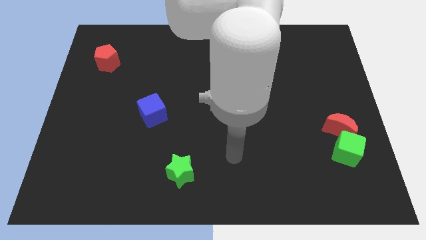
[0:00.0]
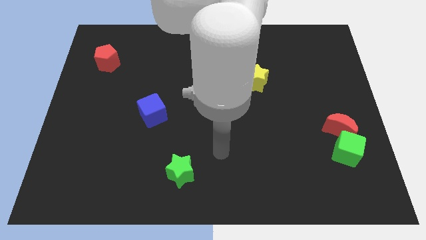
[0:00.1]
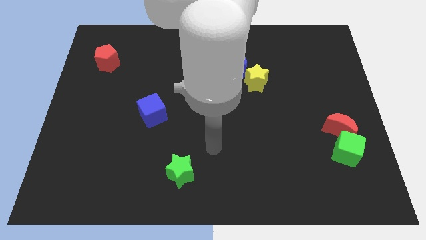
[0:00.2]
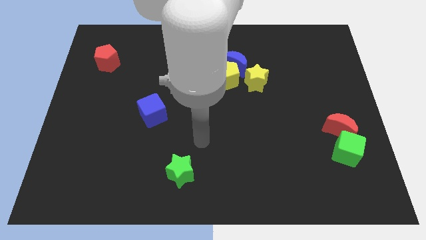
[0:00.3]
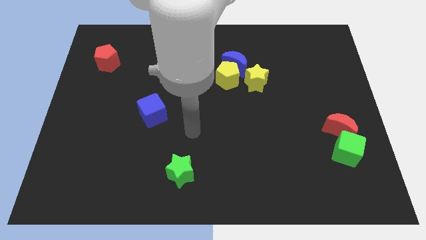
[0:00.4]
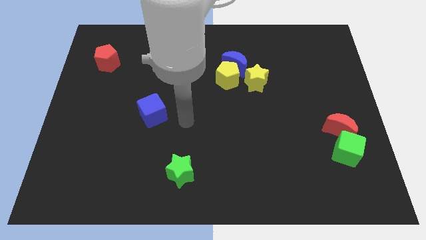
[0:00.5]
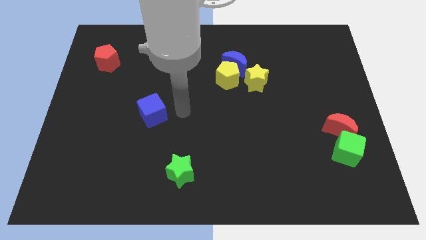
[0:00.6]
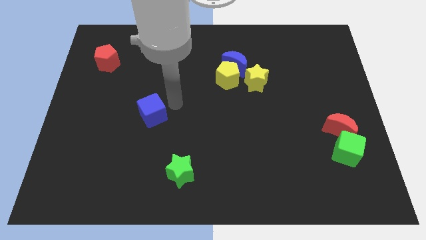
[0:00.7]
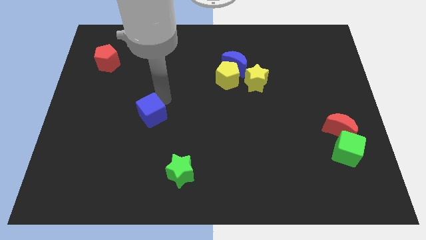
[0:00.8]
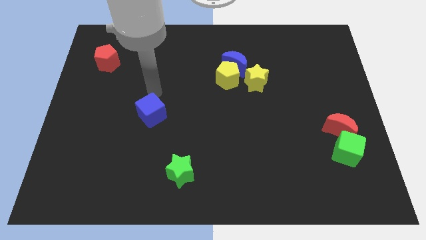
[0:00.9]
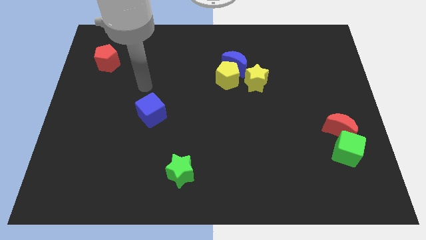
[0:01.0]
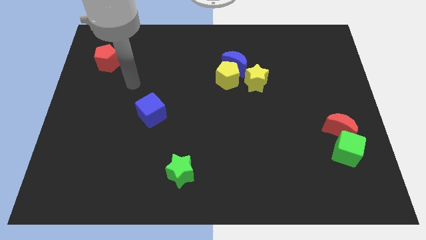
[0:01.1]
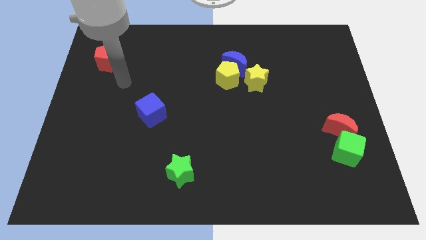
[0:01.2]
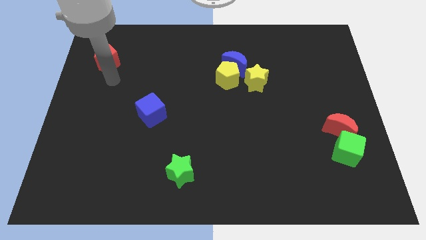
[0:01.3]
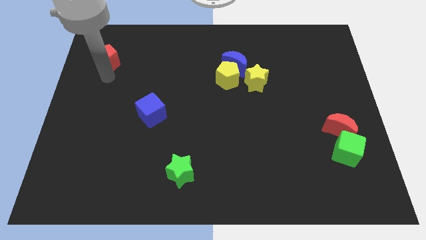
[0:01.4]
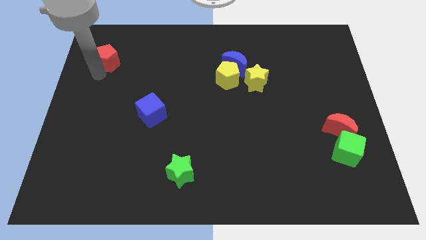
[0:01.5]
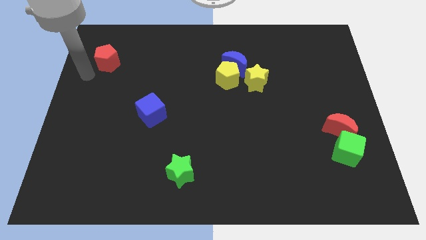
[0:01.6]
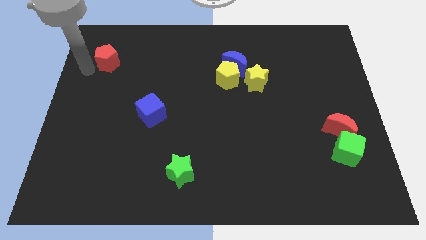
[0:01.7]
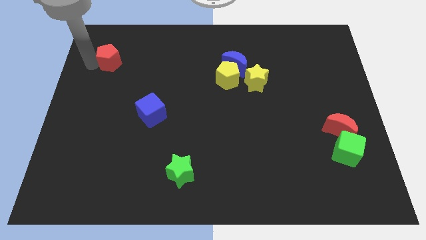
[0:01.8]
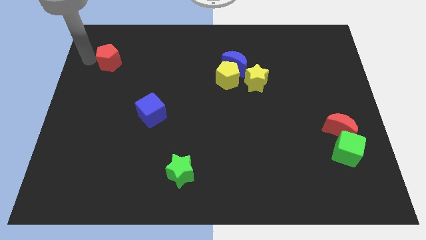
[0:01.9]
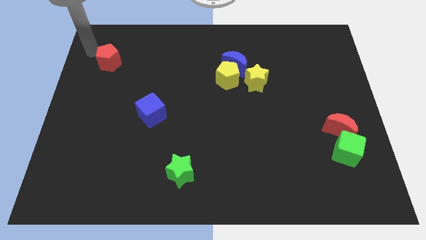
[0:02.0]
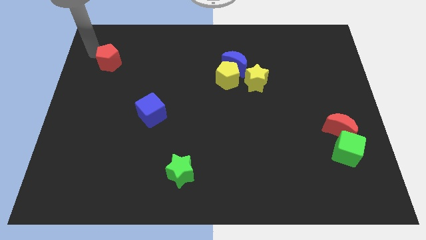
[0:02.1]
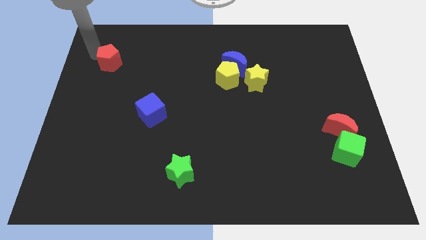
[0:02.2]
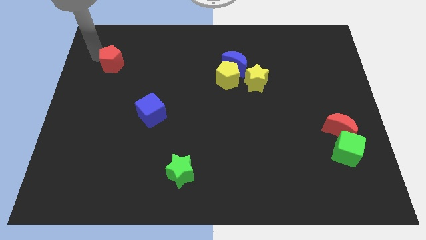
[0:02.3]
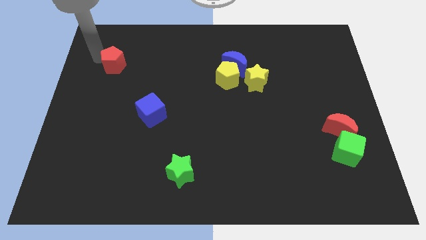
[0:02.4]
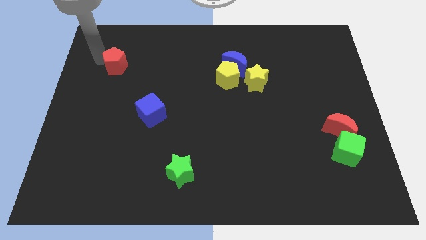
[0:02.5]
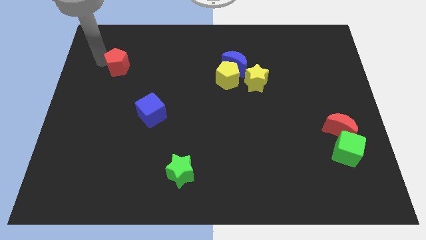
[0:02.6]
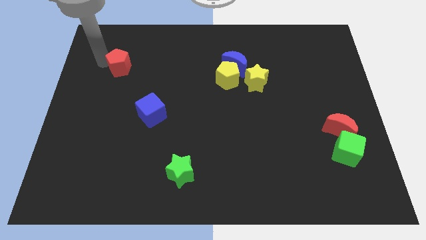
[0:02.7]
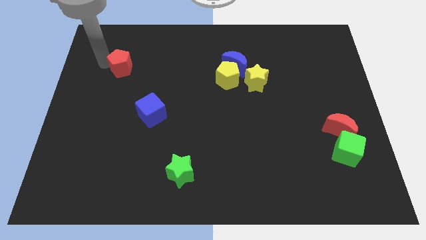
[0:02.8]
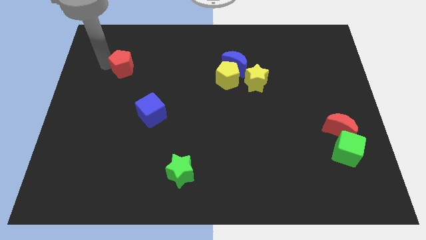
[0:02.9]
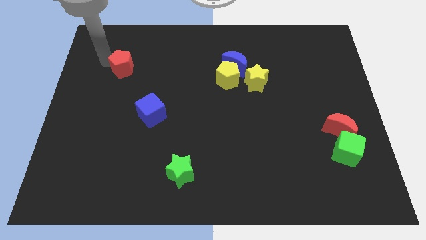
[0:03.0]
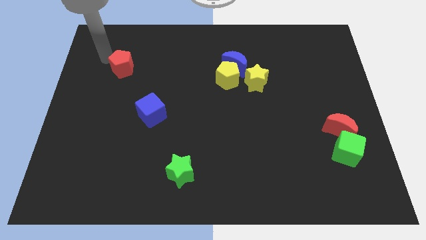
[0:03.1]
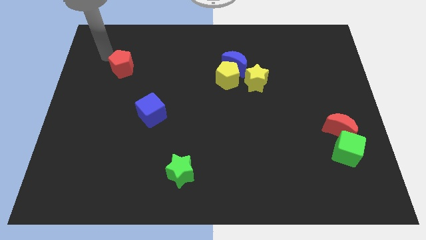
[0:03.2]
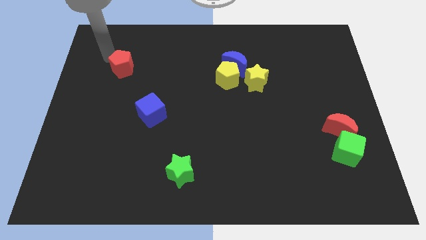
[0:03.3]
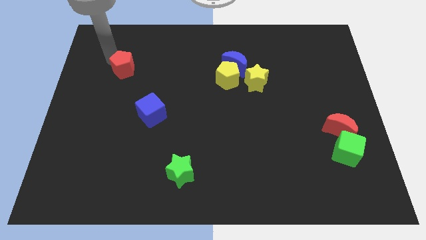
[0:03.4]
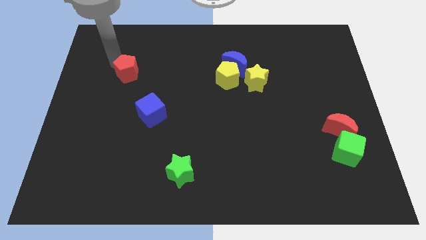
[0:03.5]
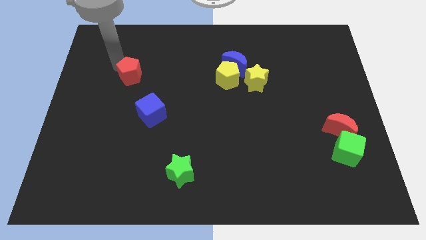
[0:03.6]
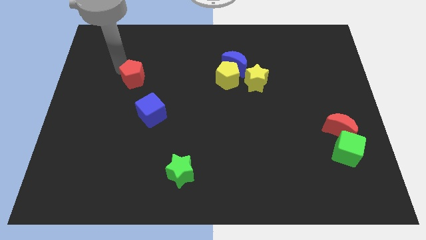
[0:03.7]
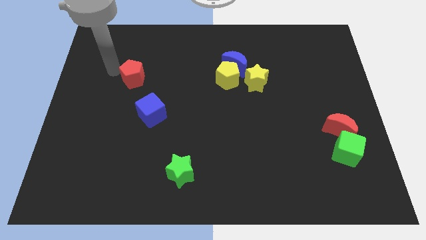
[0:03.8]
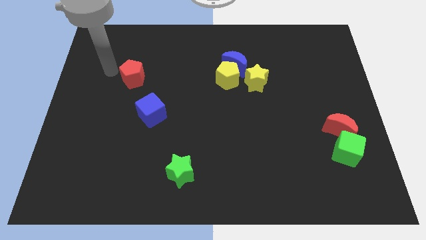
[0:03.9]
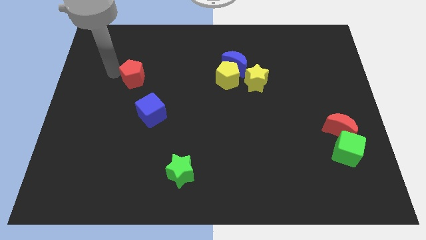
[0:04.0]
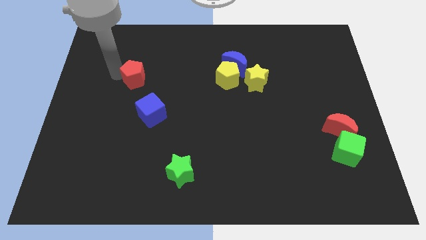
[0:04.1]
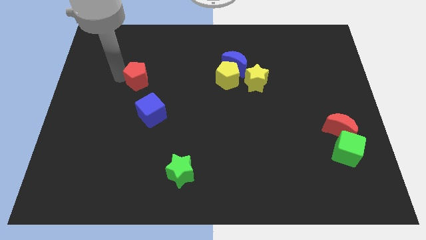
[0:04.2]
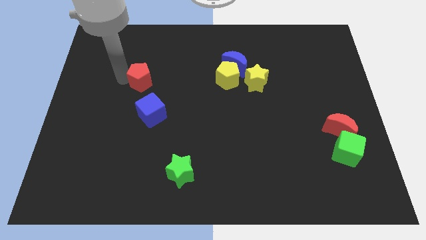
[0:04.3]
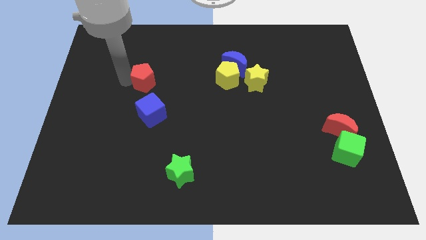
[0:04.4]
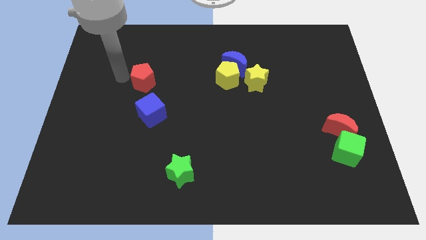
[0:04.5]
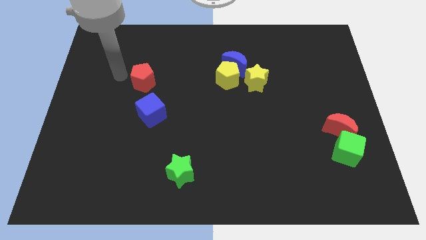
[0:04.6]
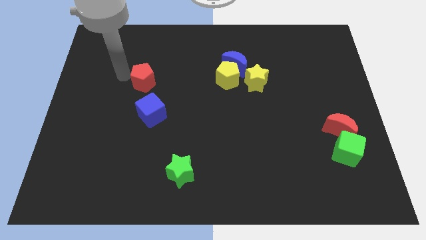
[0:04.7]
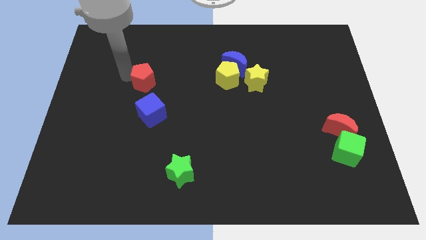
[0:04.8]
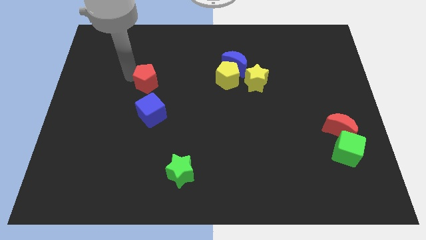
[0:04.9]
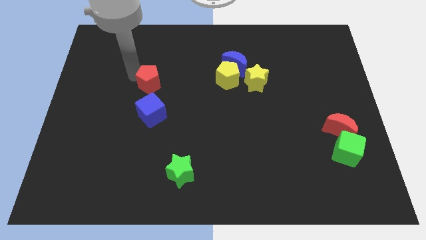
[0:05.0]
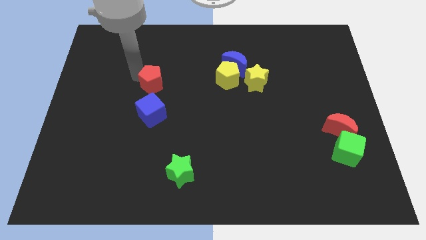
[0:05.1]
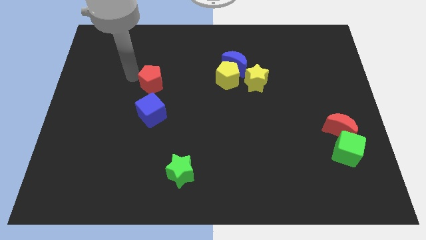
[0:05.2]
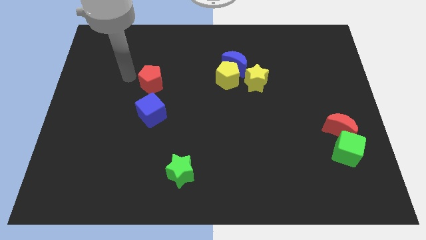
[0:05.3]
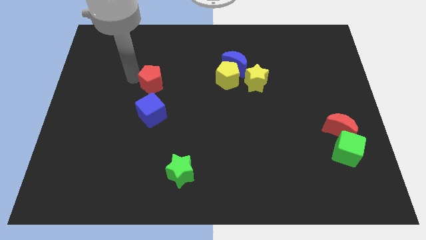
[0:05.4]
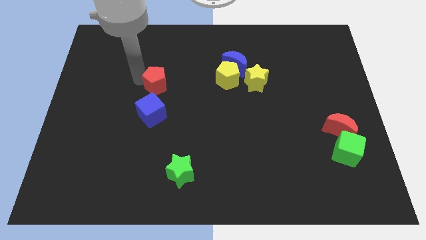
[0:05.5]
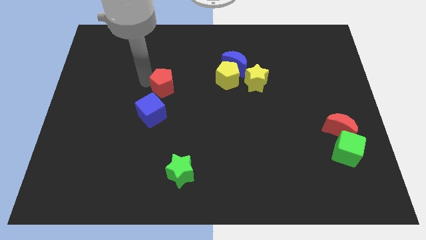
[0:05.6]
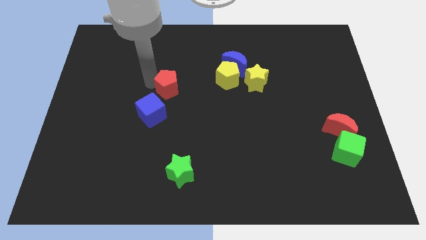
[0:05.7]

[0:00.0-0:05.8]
slide the red pentagon to the middle

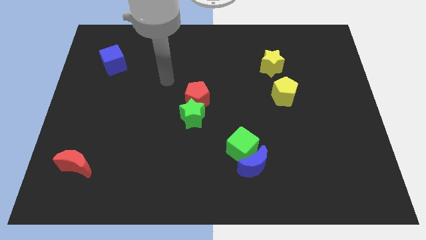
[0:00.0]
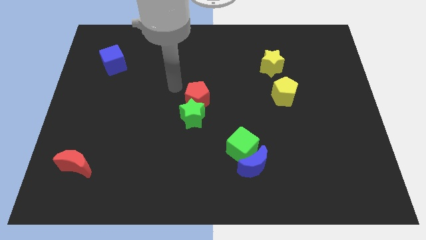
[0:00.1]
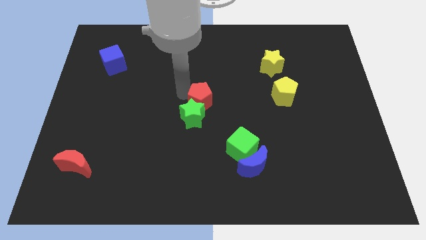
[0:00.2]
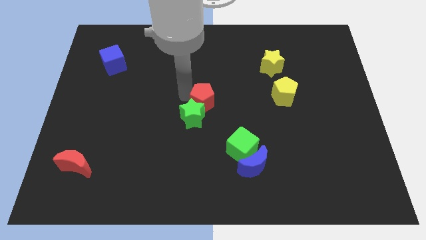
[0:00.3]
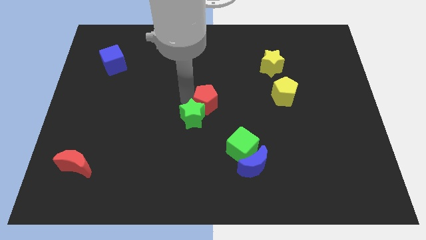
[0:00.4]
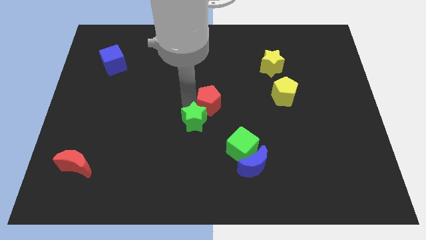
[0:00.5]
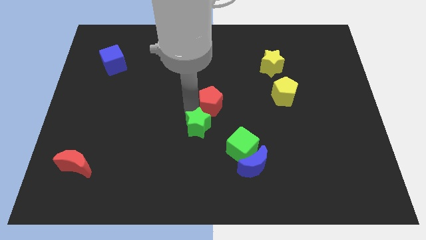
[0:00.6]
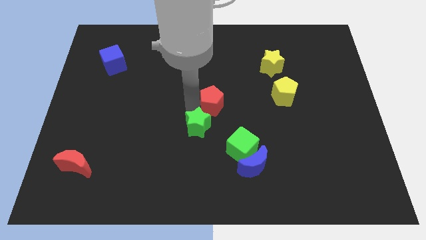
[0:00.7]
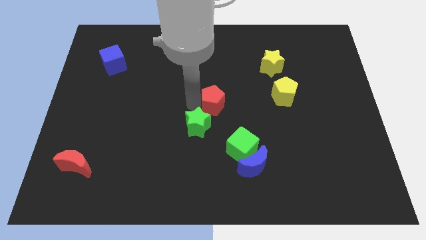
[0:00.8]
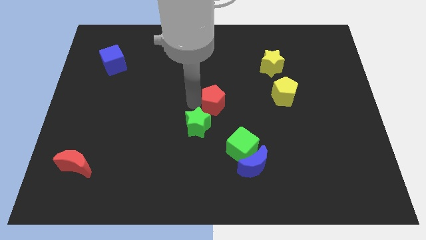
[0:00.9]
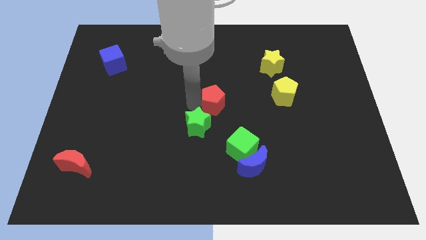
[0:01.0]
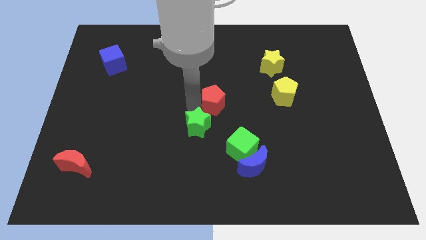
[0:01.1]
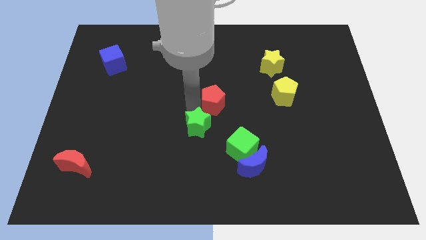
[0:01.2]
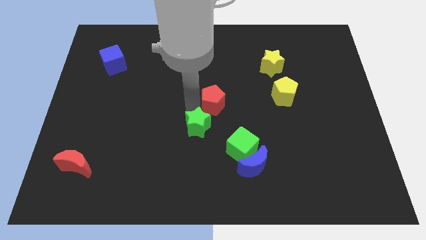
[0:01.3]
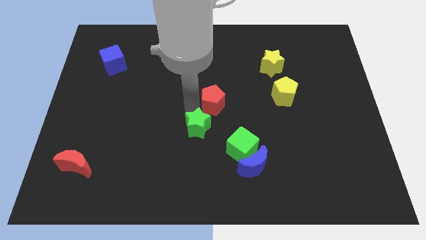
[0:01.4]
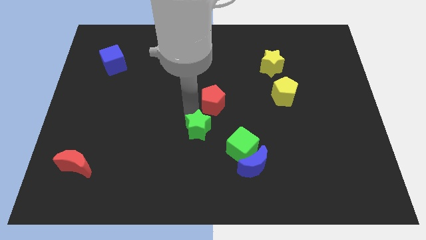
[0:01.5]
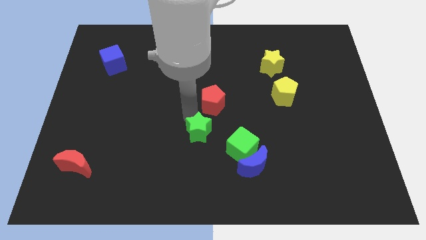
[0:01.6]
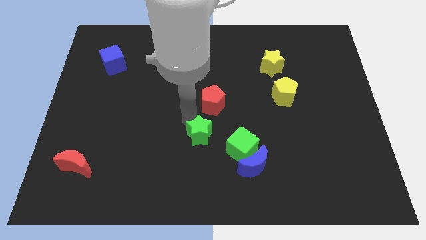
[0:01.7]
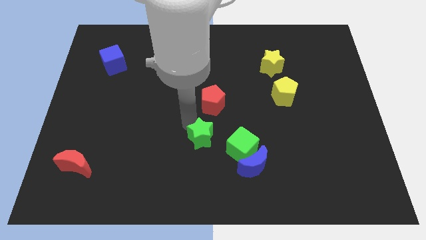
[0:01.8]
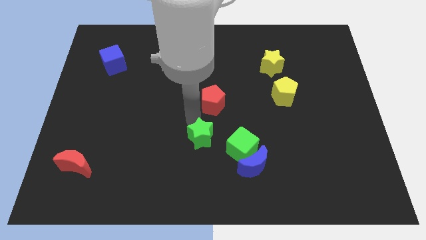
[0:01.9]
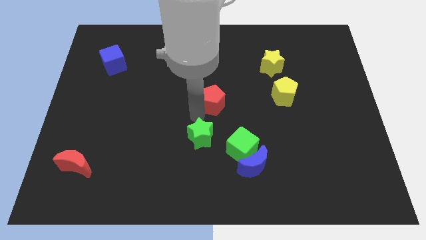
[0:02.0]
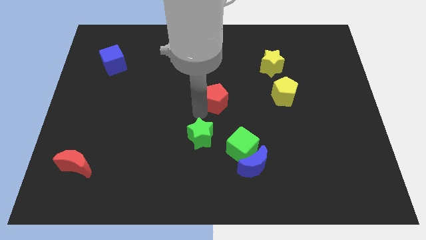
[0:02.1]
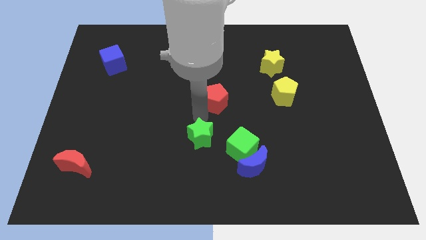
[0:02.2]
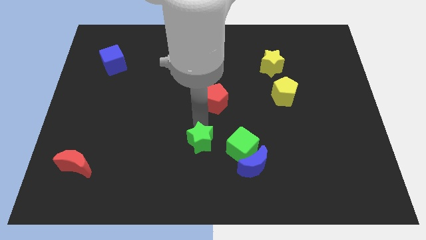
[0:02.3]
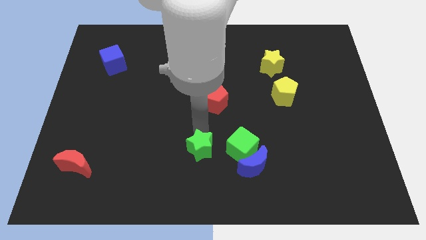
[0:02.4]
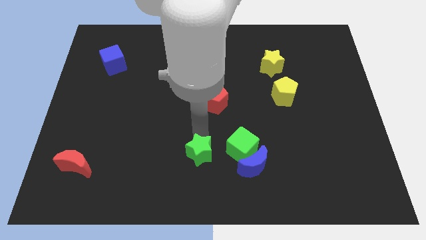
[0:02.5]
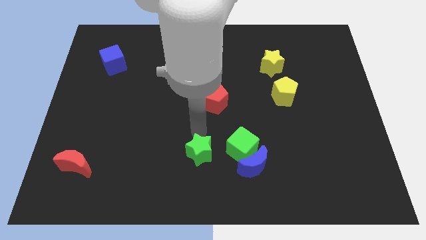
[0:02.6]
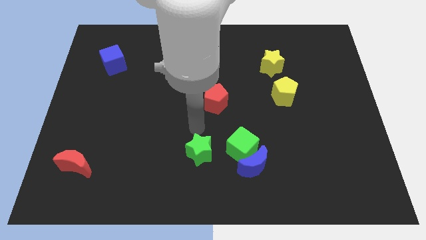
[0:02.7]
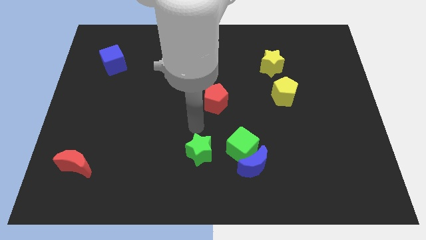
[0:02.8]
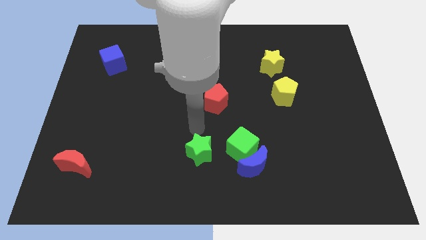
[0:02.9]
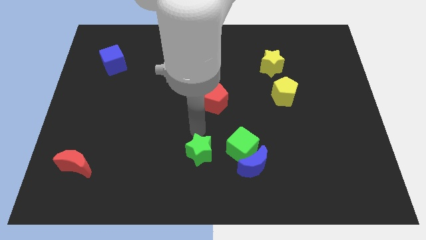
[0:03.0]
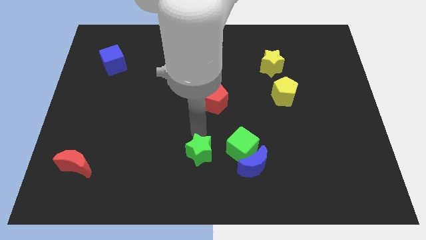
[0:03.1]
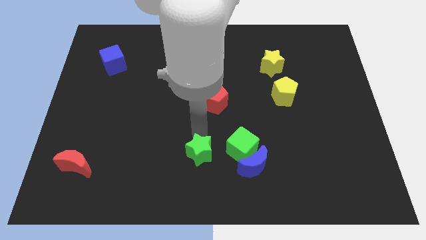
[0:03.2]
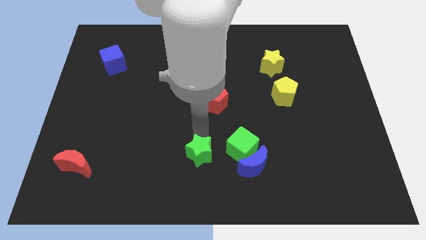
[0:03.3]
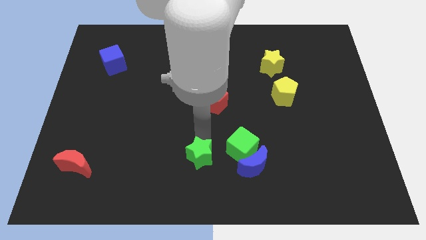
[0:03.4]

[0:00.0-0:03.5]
put the green star to the bottom side
